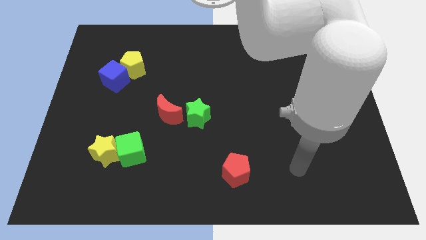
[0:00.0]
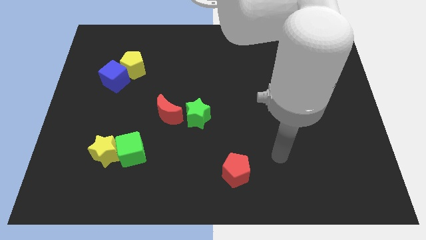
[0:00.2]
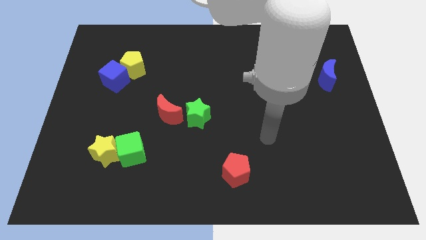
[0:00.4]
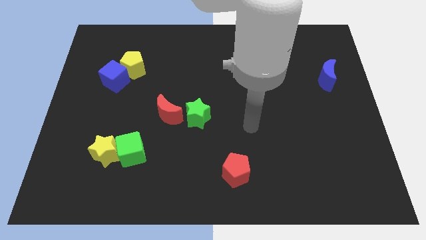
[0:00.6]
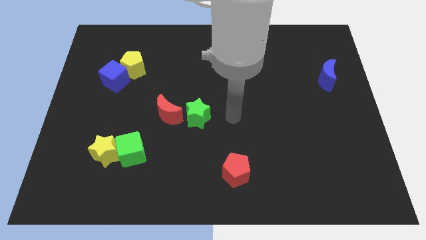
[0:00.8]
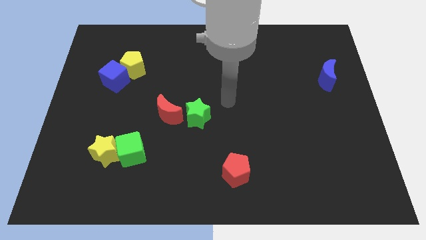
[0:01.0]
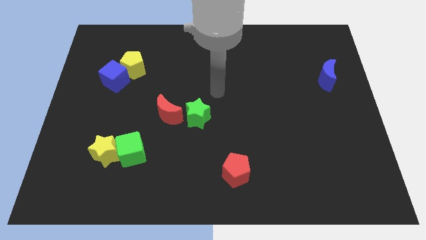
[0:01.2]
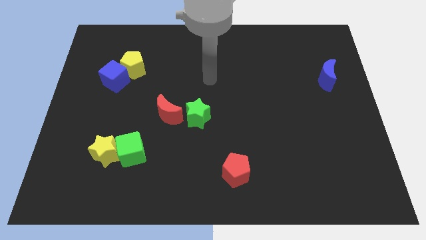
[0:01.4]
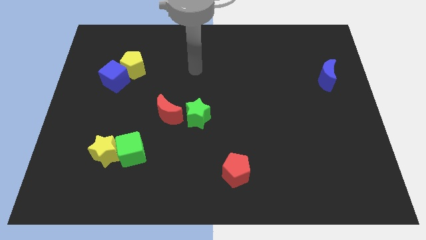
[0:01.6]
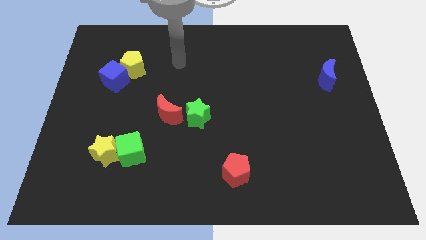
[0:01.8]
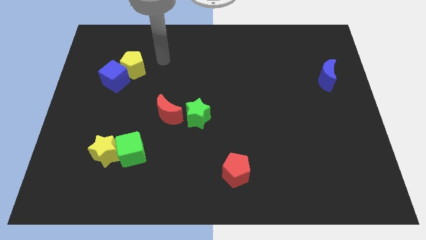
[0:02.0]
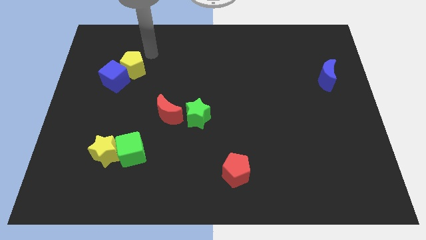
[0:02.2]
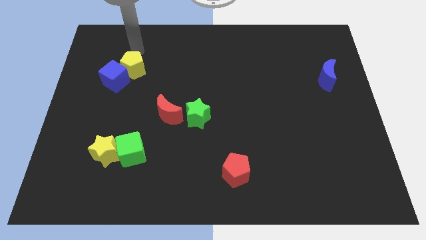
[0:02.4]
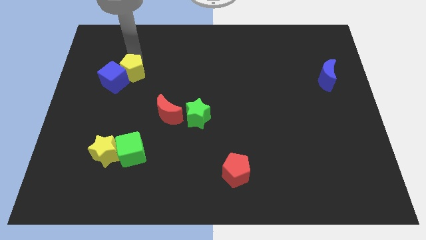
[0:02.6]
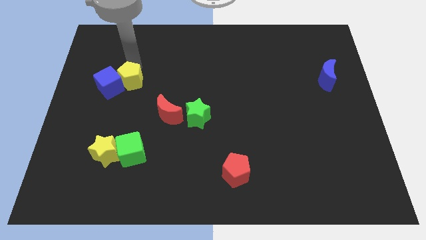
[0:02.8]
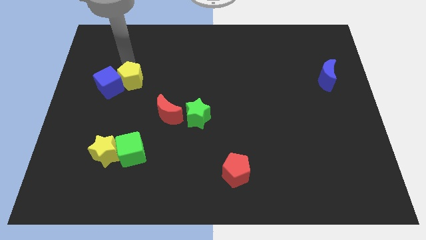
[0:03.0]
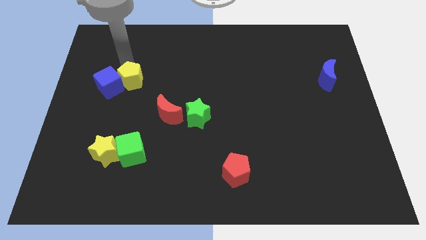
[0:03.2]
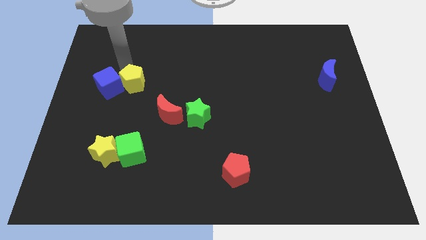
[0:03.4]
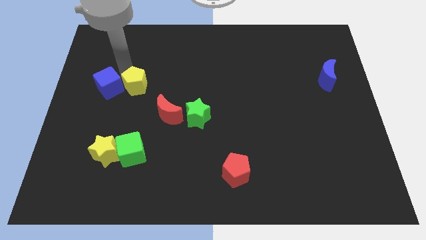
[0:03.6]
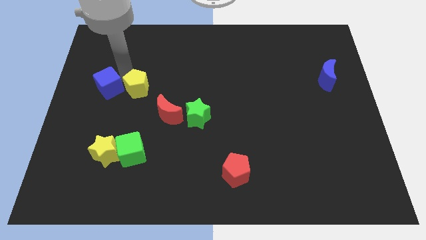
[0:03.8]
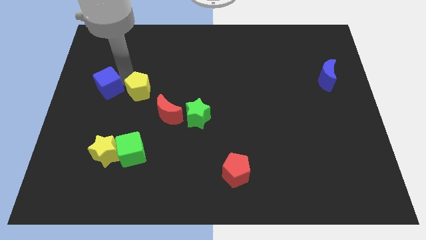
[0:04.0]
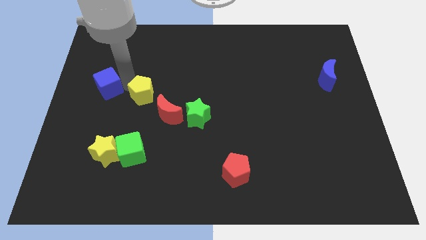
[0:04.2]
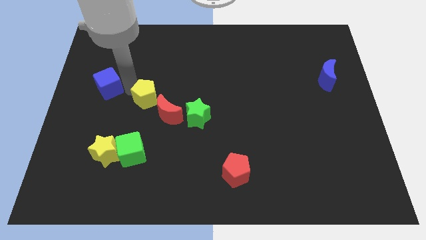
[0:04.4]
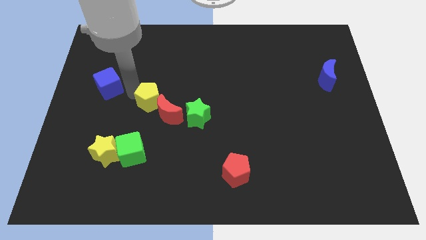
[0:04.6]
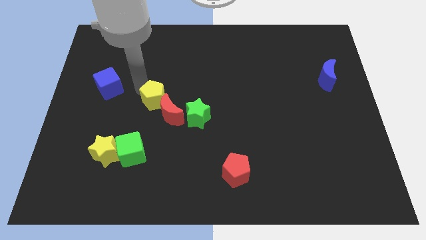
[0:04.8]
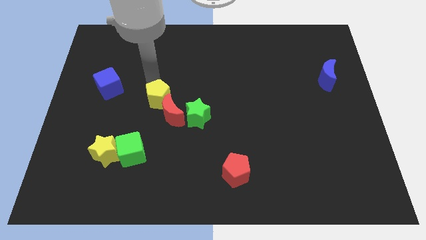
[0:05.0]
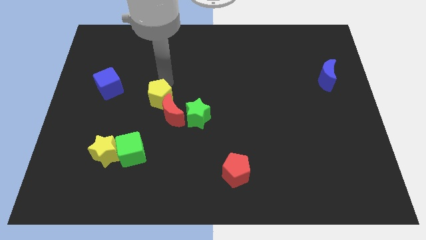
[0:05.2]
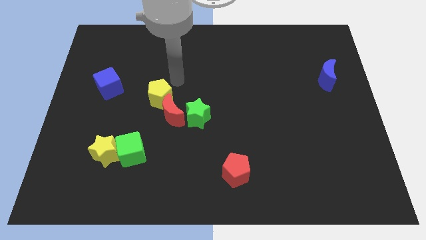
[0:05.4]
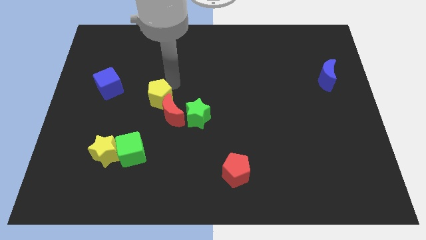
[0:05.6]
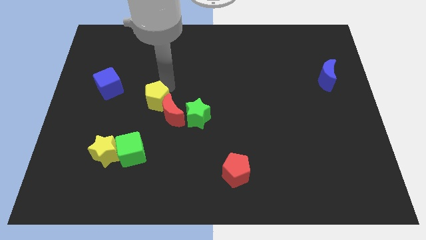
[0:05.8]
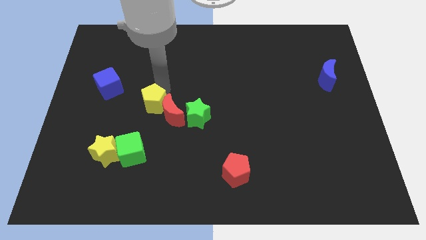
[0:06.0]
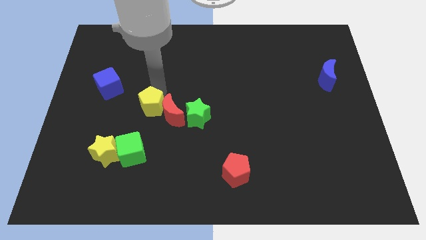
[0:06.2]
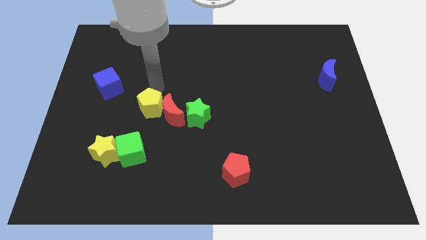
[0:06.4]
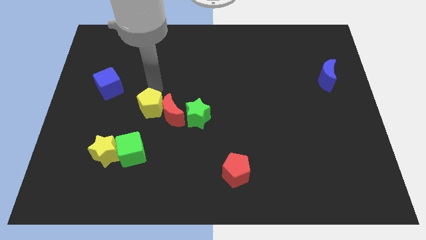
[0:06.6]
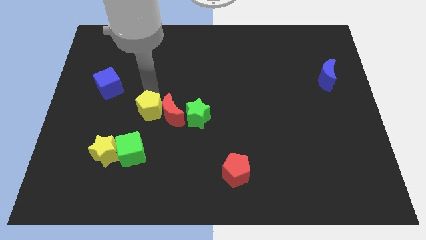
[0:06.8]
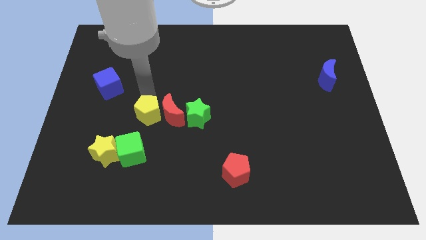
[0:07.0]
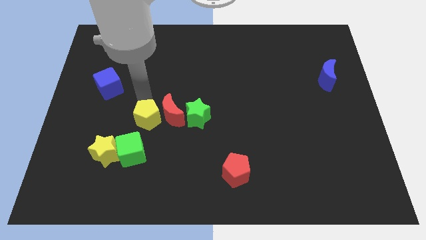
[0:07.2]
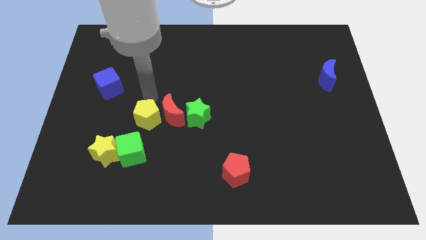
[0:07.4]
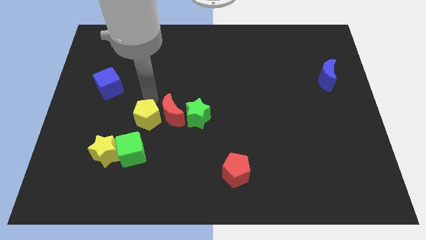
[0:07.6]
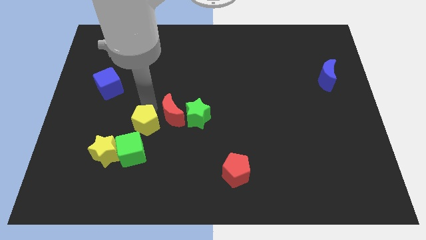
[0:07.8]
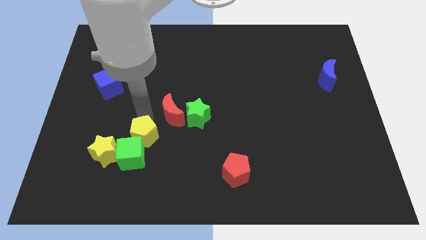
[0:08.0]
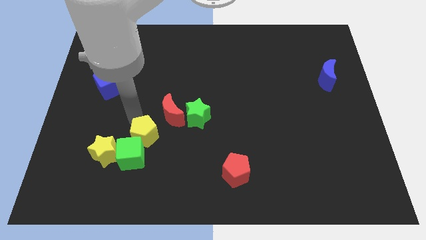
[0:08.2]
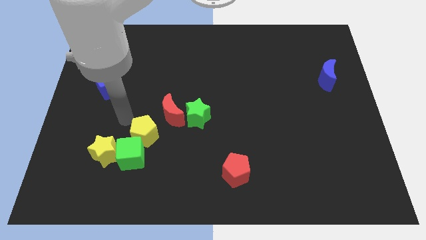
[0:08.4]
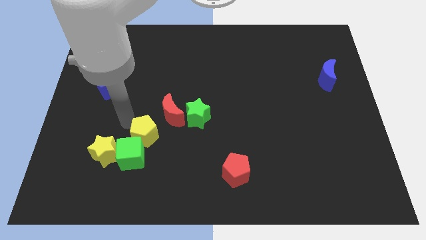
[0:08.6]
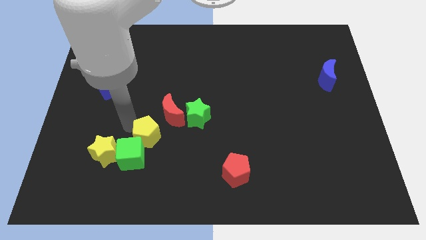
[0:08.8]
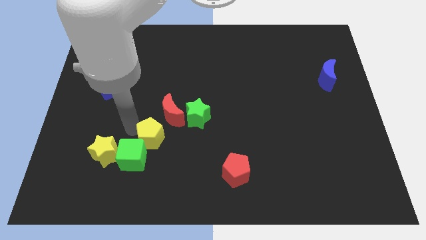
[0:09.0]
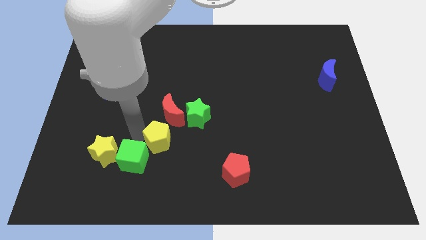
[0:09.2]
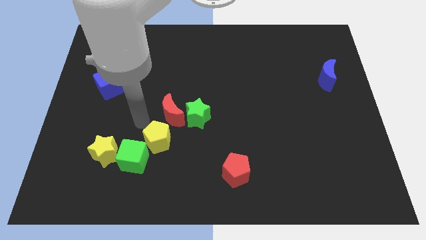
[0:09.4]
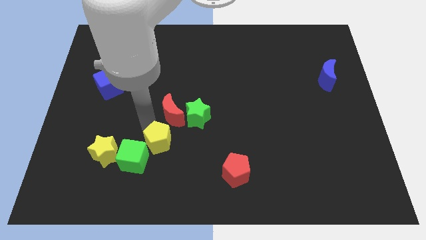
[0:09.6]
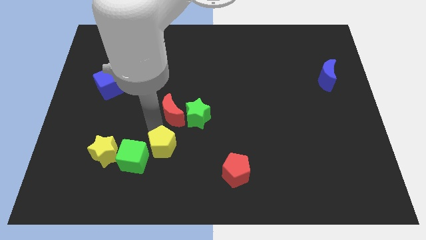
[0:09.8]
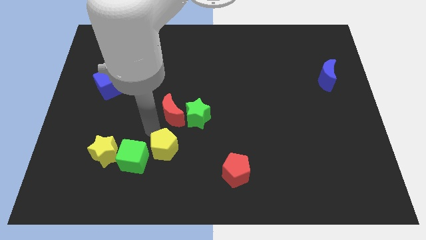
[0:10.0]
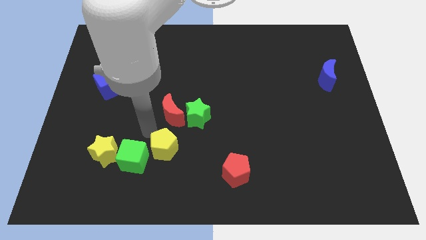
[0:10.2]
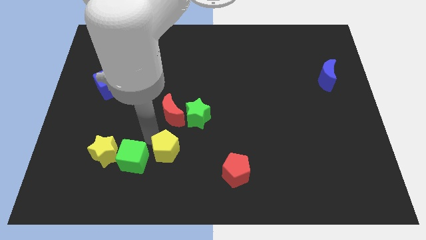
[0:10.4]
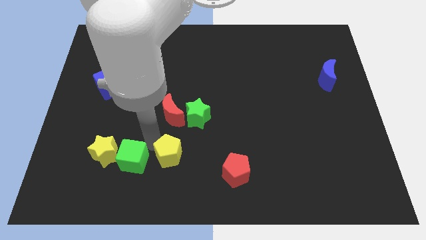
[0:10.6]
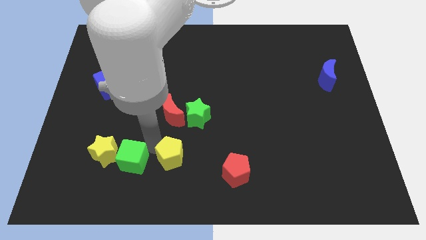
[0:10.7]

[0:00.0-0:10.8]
put the yellow pentagon just left of the red pentagon

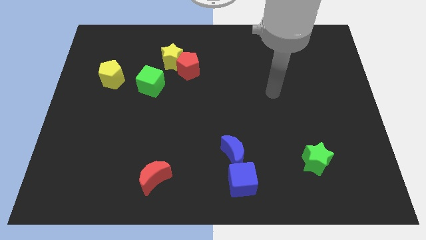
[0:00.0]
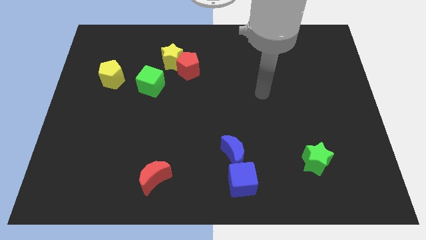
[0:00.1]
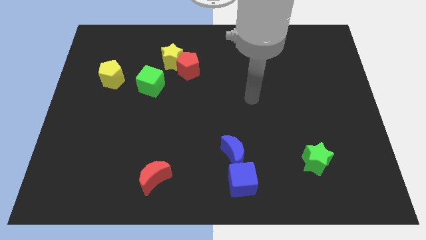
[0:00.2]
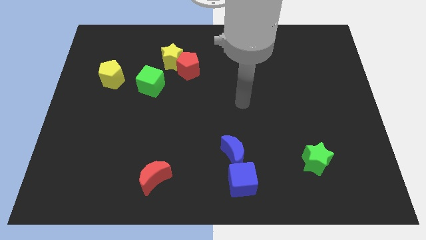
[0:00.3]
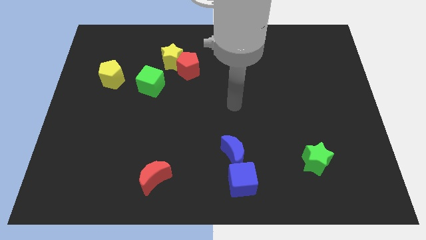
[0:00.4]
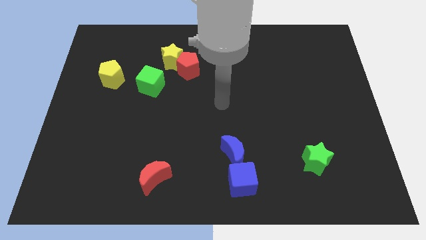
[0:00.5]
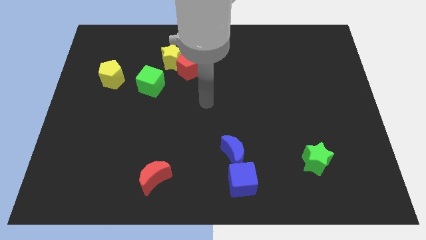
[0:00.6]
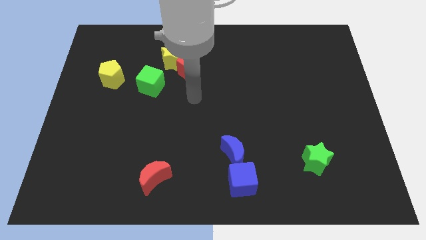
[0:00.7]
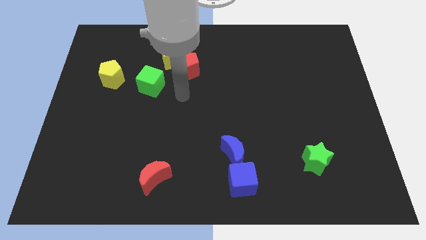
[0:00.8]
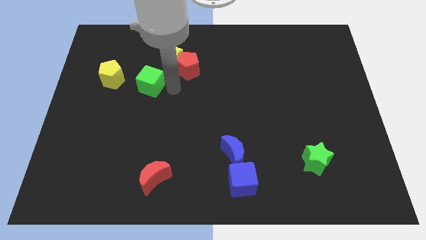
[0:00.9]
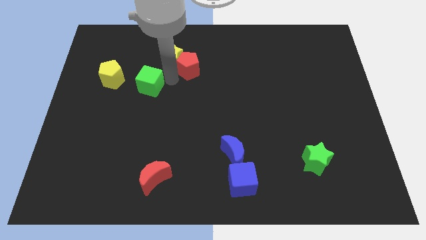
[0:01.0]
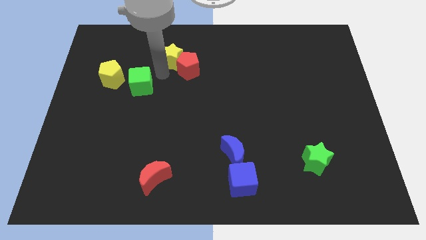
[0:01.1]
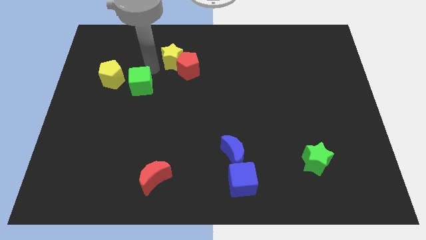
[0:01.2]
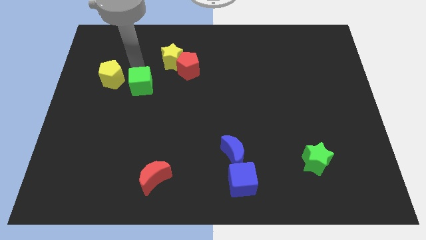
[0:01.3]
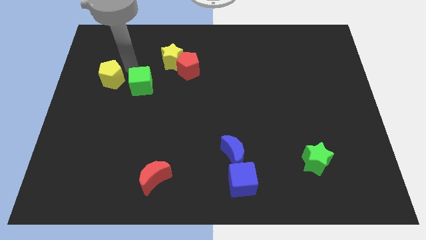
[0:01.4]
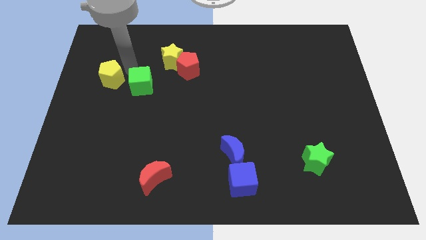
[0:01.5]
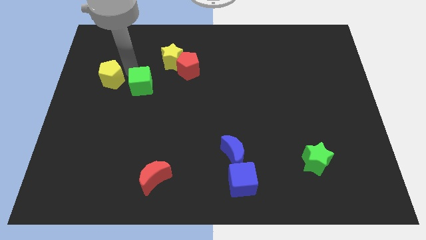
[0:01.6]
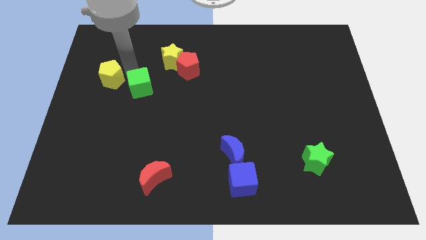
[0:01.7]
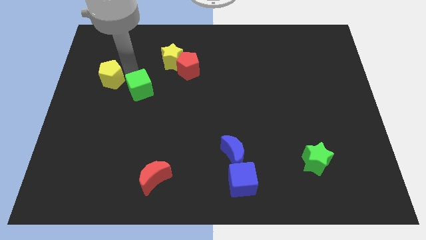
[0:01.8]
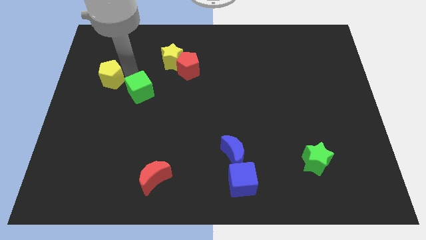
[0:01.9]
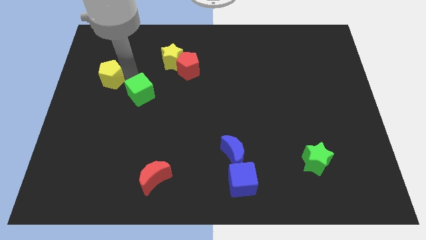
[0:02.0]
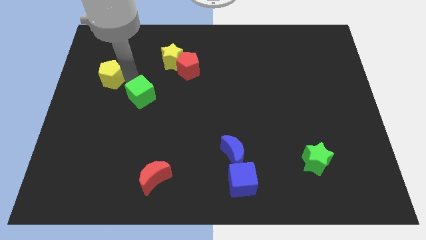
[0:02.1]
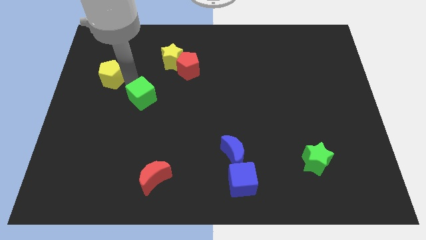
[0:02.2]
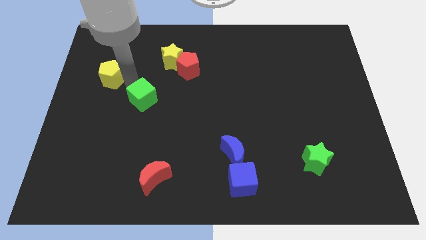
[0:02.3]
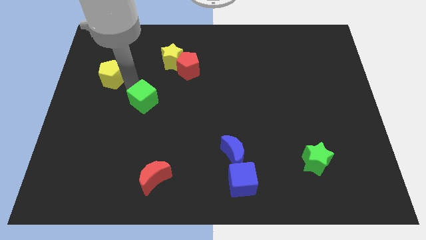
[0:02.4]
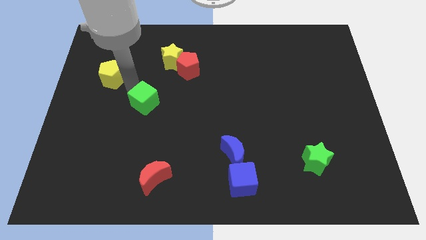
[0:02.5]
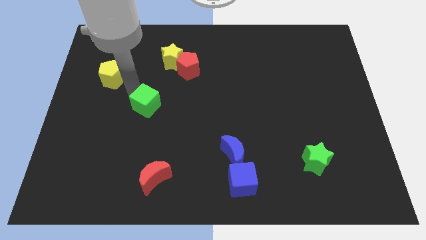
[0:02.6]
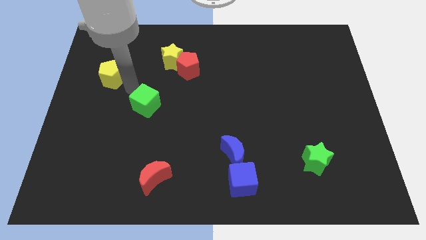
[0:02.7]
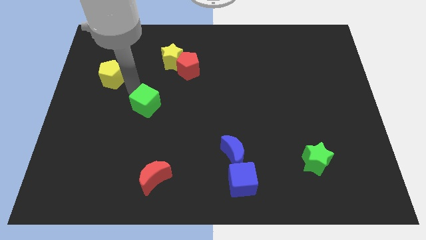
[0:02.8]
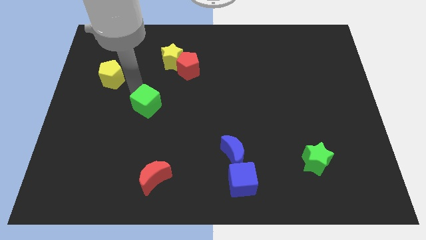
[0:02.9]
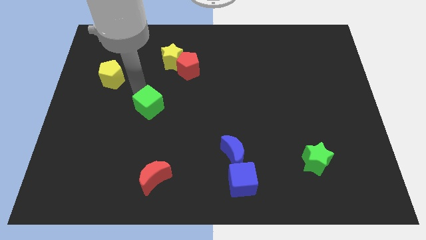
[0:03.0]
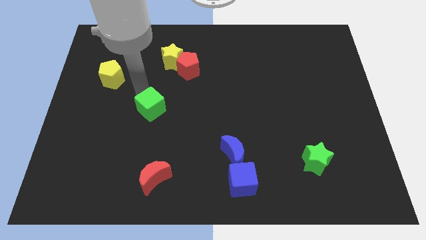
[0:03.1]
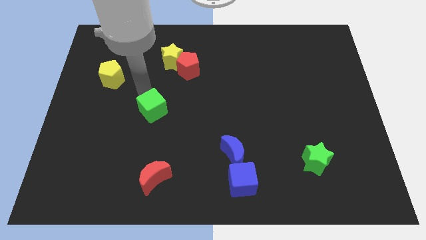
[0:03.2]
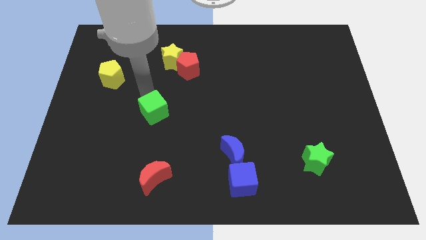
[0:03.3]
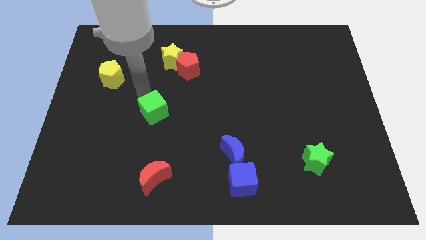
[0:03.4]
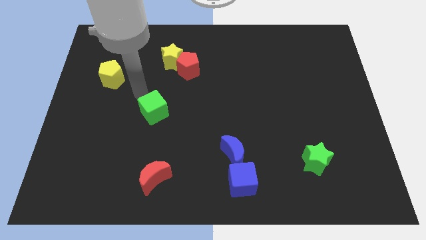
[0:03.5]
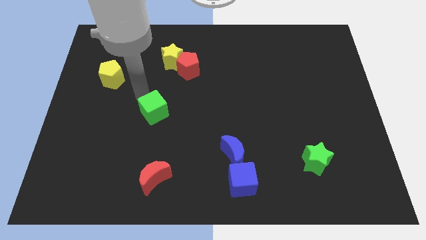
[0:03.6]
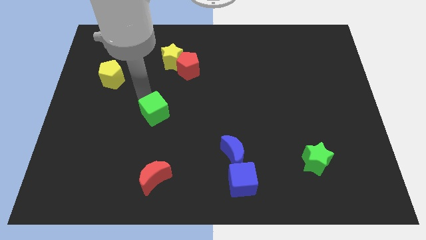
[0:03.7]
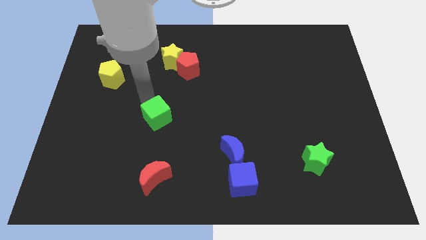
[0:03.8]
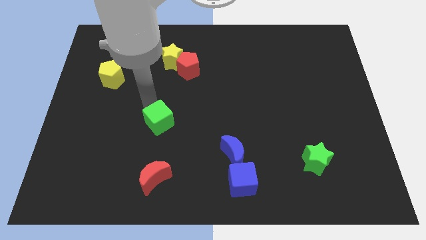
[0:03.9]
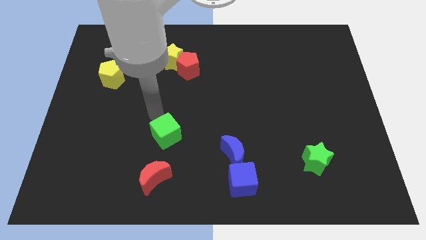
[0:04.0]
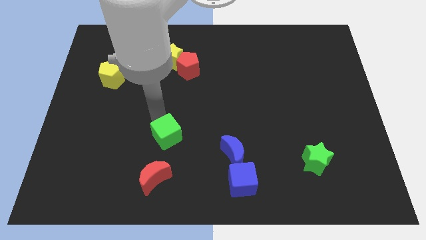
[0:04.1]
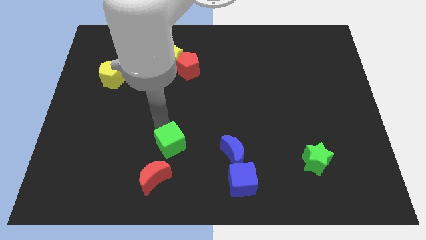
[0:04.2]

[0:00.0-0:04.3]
slide the green cube to the top right side of the red moon
